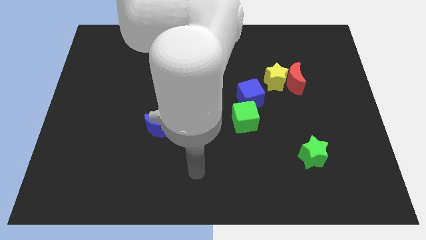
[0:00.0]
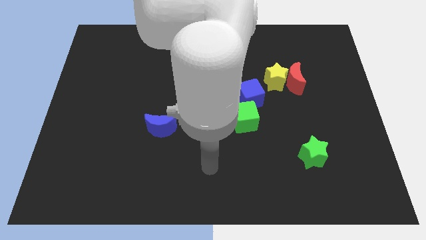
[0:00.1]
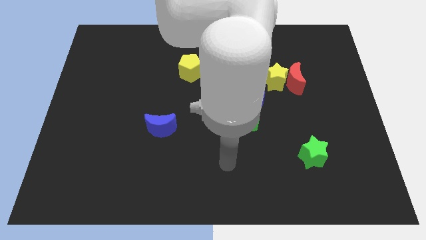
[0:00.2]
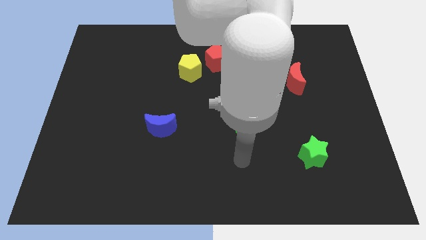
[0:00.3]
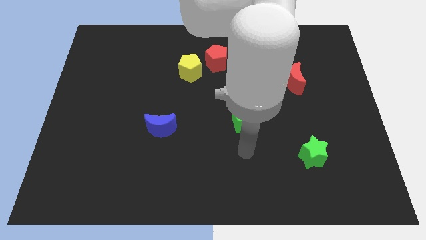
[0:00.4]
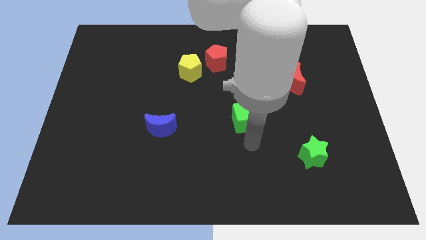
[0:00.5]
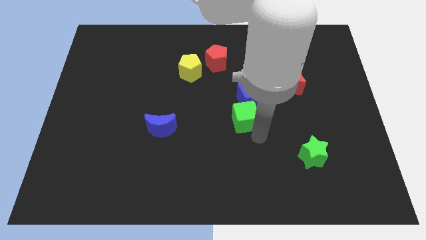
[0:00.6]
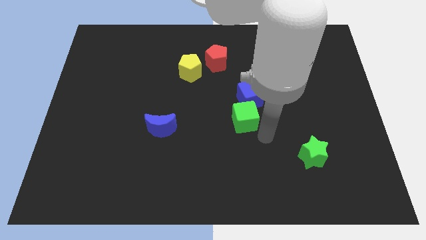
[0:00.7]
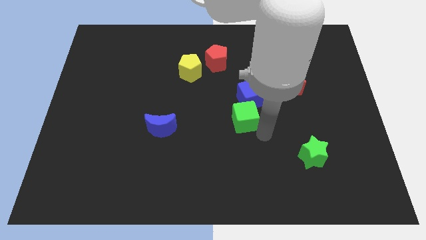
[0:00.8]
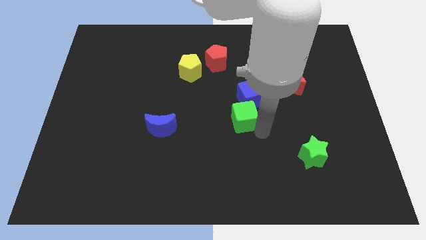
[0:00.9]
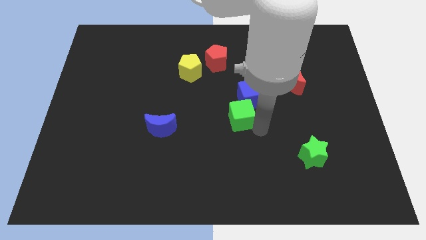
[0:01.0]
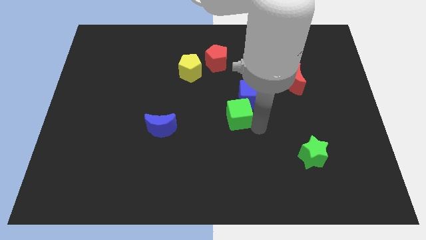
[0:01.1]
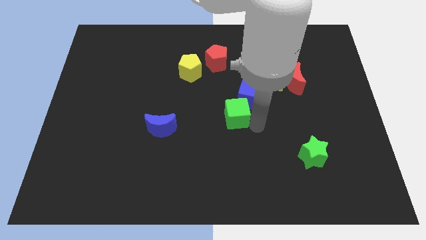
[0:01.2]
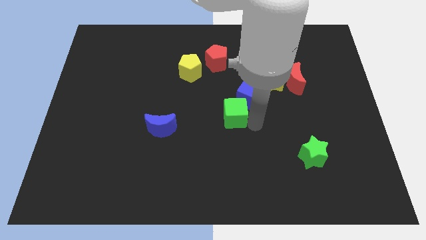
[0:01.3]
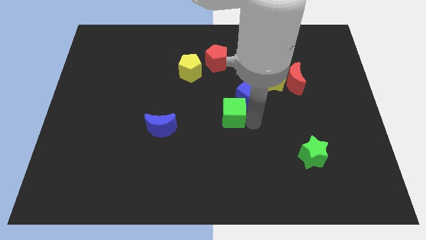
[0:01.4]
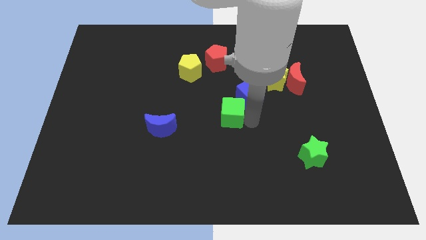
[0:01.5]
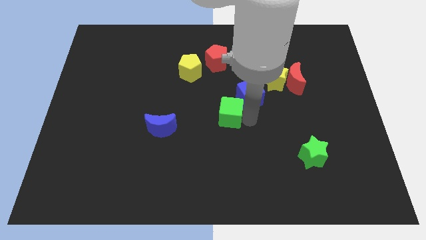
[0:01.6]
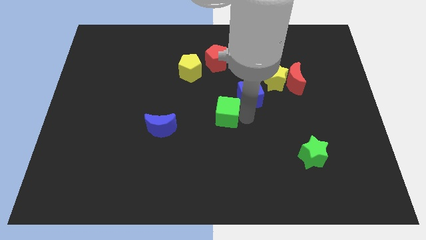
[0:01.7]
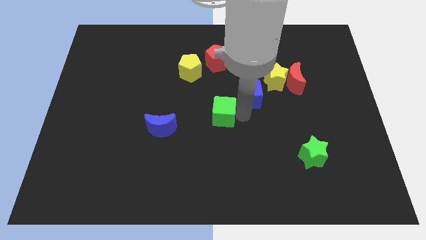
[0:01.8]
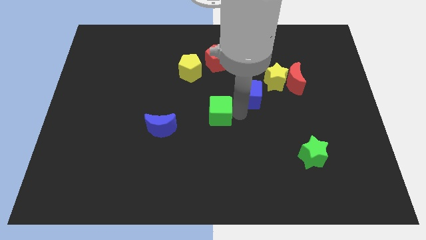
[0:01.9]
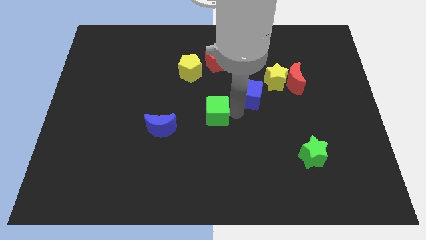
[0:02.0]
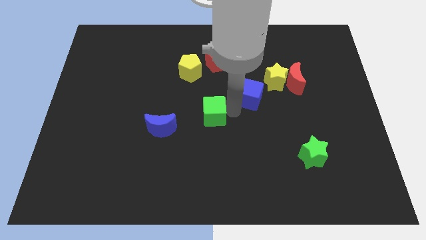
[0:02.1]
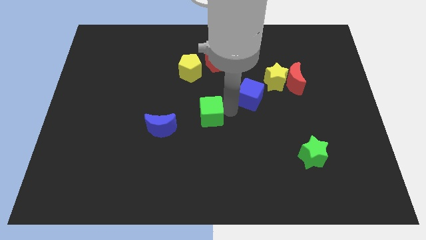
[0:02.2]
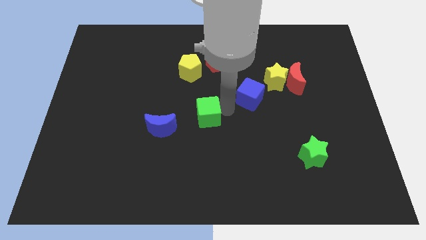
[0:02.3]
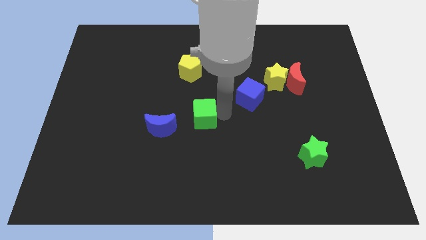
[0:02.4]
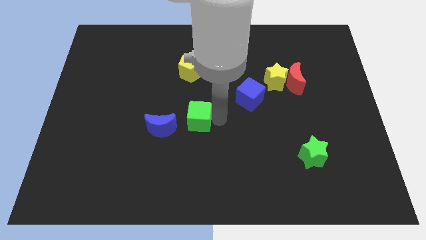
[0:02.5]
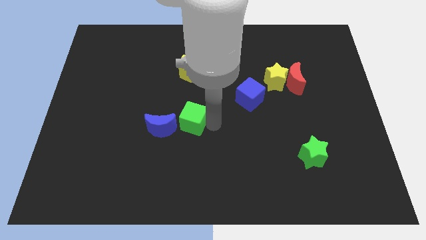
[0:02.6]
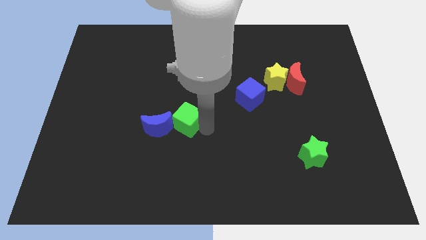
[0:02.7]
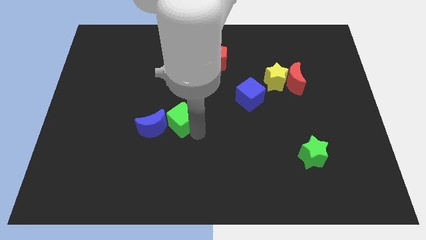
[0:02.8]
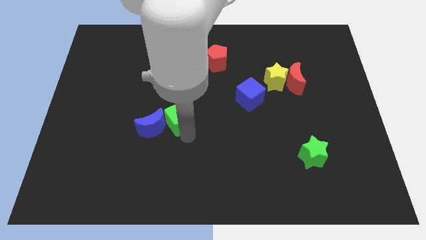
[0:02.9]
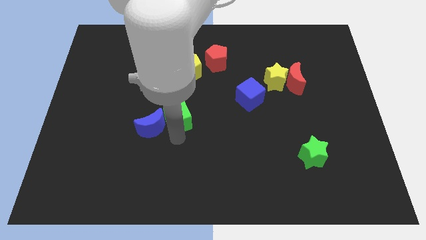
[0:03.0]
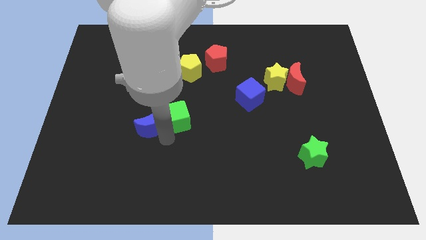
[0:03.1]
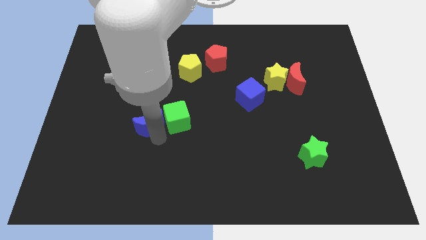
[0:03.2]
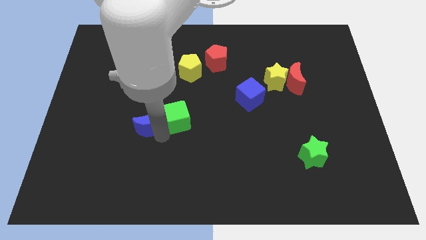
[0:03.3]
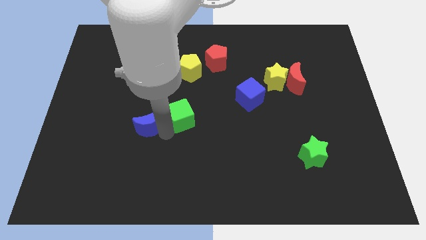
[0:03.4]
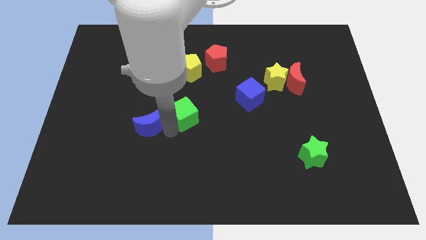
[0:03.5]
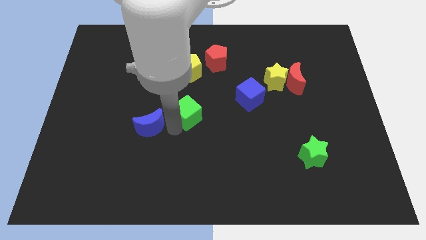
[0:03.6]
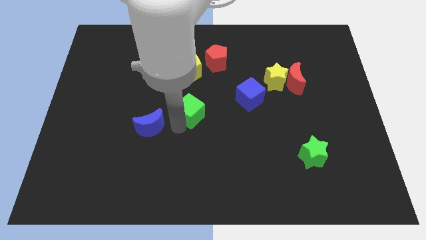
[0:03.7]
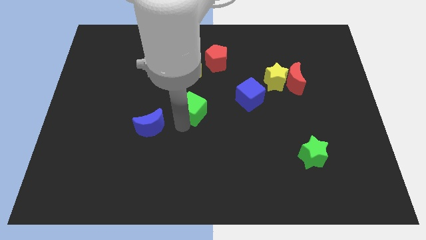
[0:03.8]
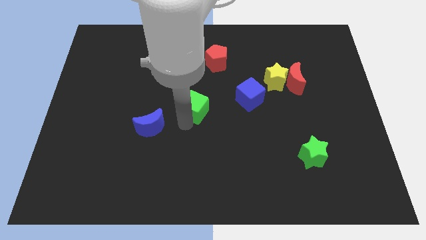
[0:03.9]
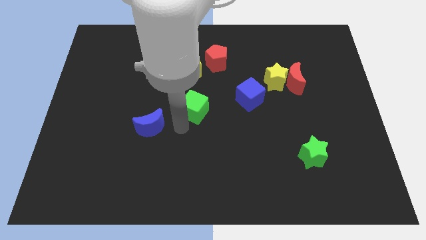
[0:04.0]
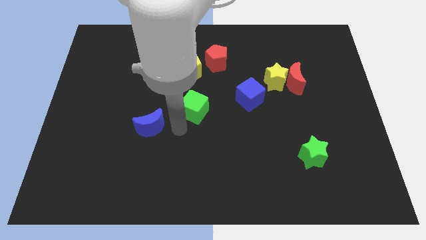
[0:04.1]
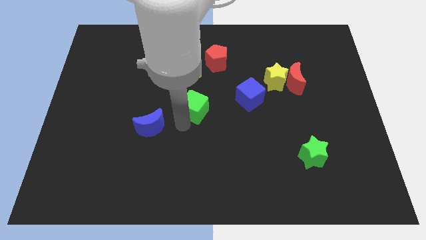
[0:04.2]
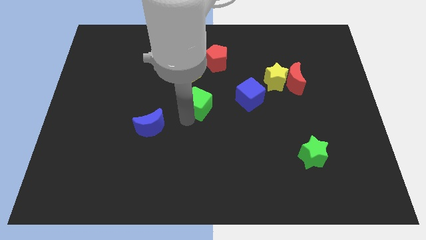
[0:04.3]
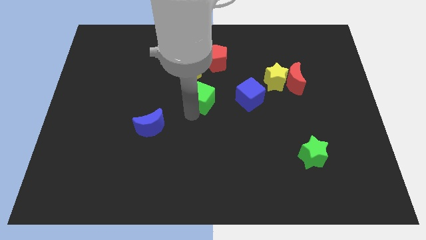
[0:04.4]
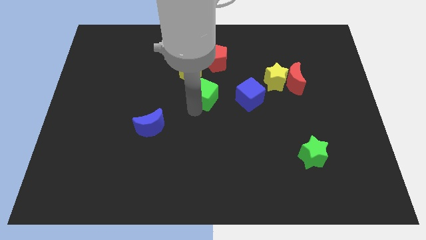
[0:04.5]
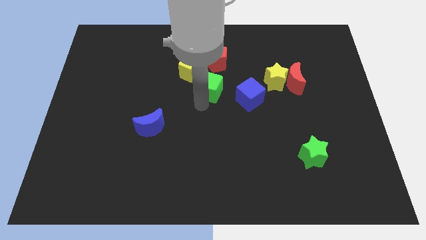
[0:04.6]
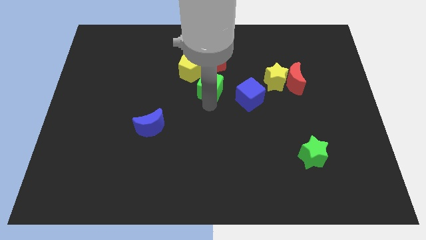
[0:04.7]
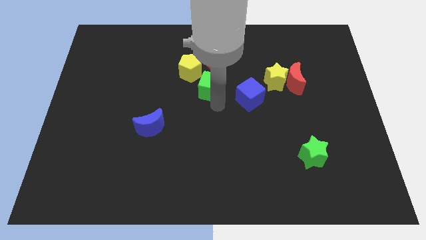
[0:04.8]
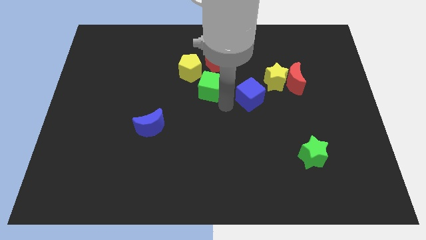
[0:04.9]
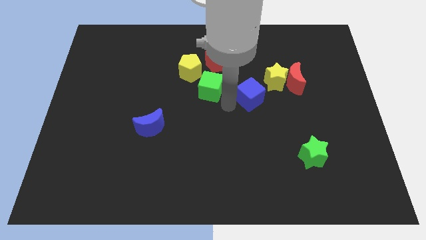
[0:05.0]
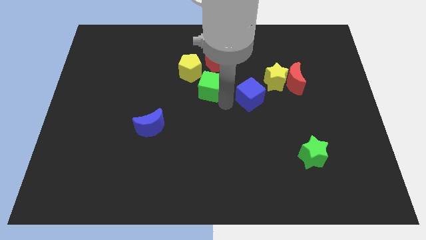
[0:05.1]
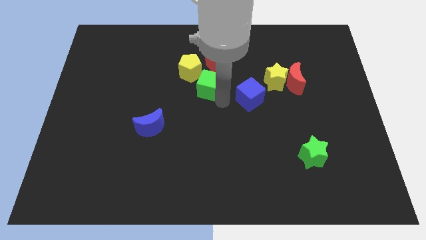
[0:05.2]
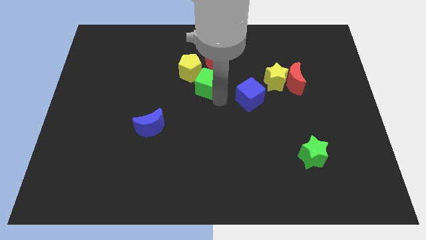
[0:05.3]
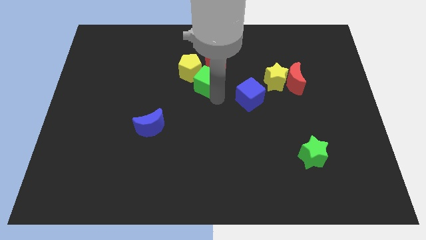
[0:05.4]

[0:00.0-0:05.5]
move the green cube to the yellow pentagon

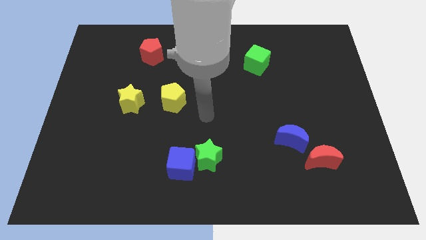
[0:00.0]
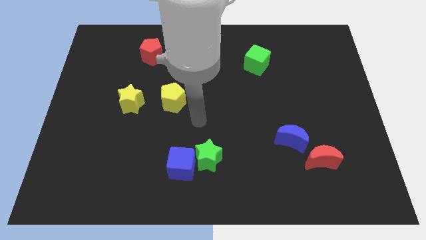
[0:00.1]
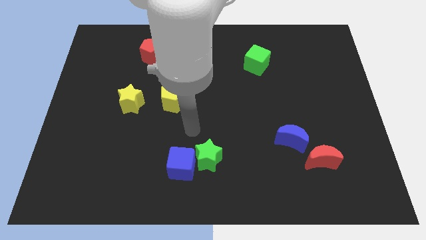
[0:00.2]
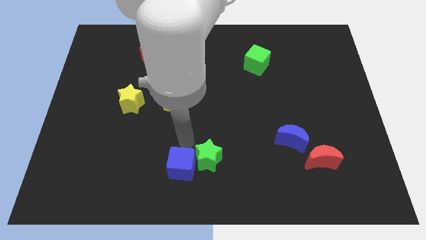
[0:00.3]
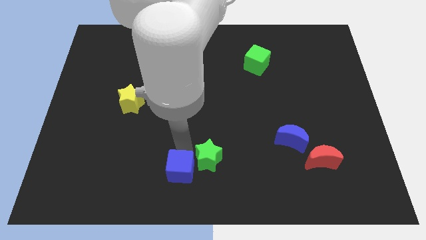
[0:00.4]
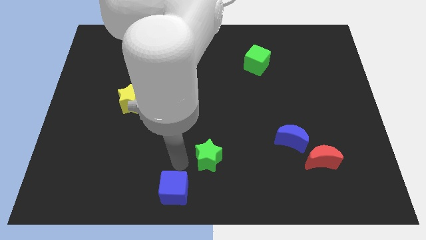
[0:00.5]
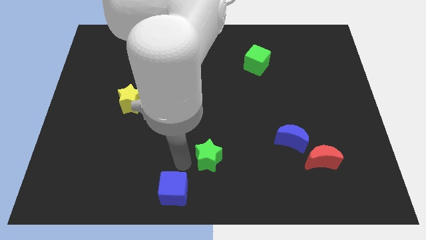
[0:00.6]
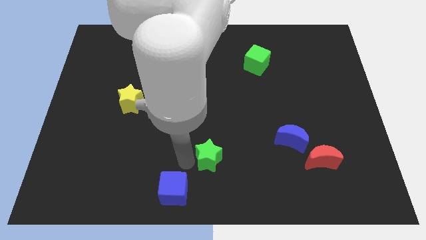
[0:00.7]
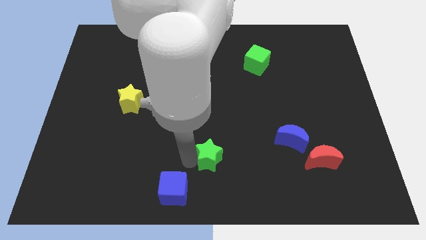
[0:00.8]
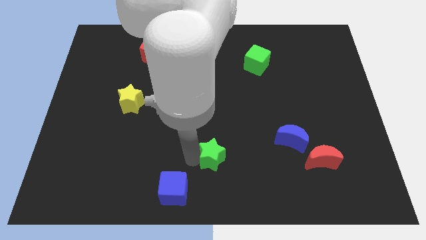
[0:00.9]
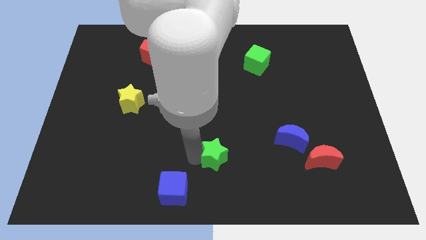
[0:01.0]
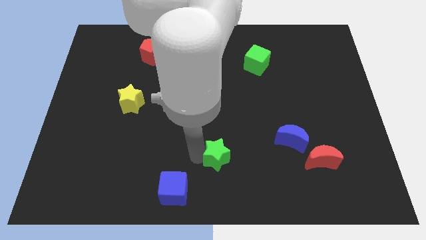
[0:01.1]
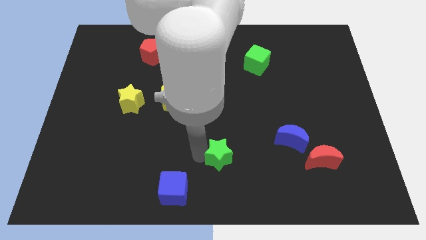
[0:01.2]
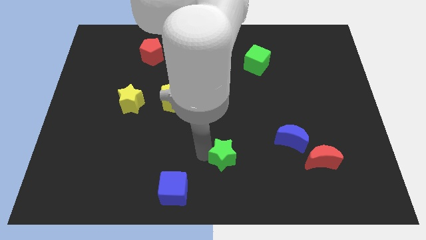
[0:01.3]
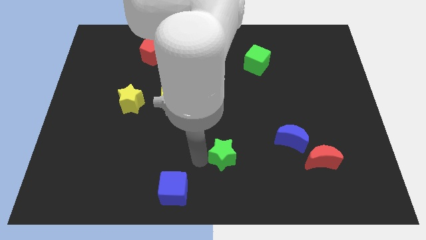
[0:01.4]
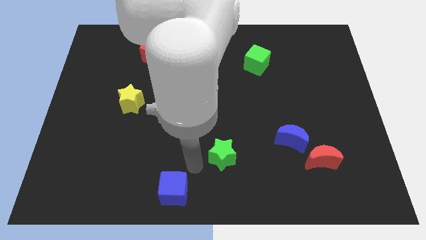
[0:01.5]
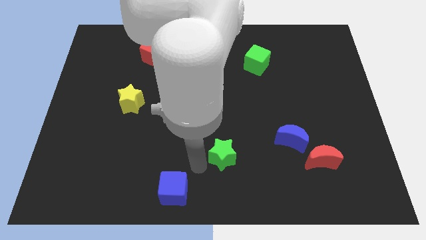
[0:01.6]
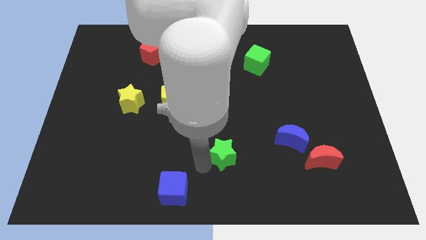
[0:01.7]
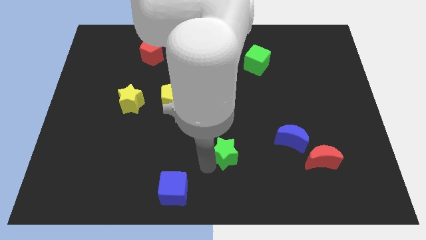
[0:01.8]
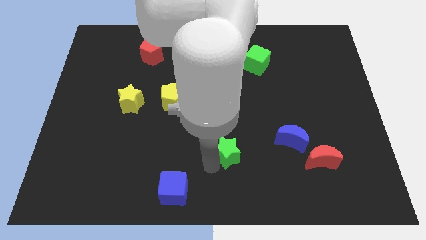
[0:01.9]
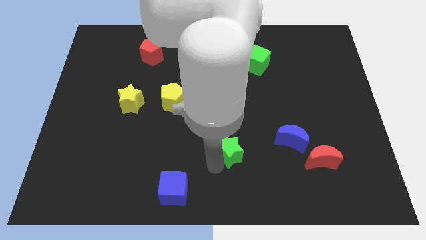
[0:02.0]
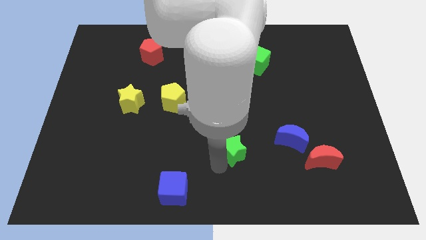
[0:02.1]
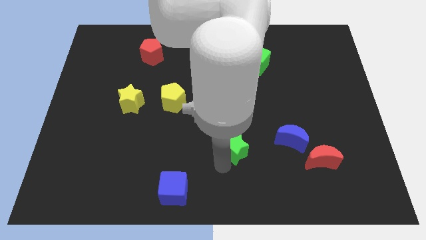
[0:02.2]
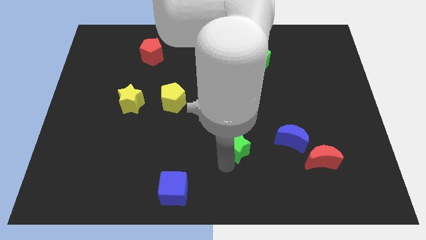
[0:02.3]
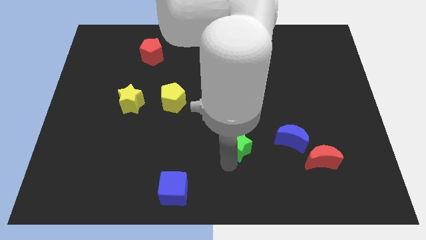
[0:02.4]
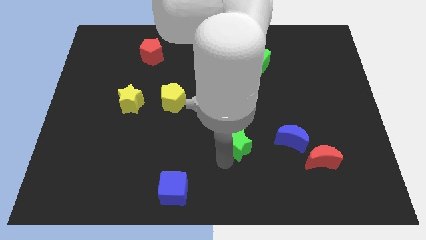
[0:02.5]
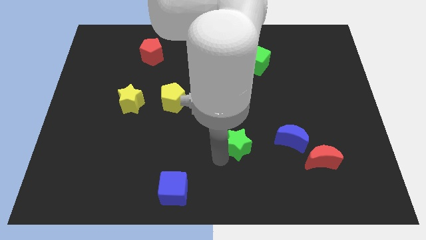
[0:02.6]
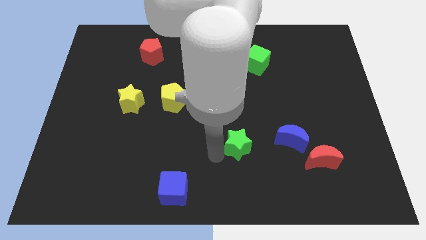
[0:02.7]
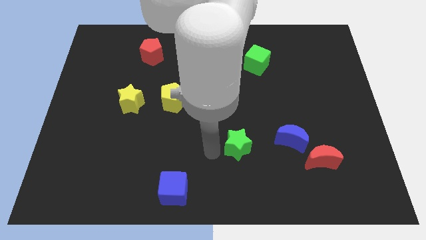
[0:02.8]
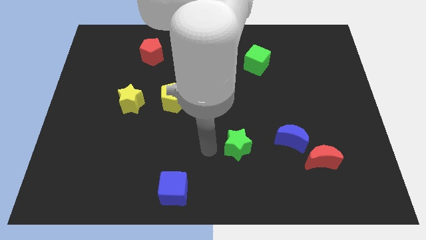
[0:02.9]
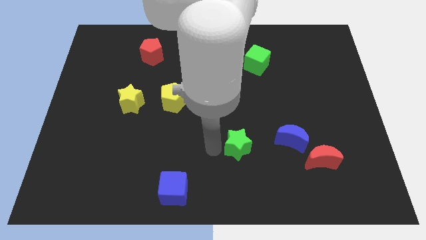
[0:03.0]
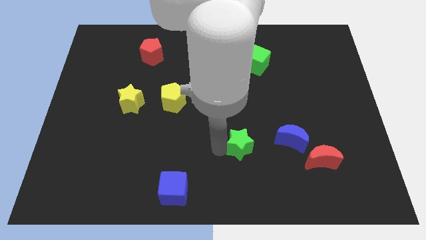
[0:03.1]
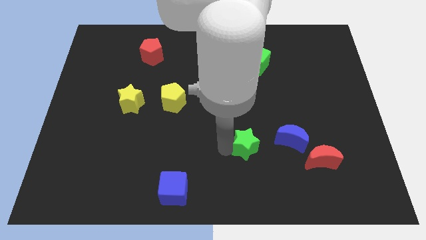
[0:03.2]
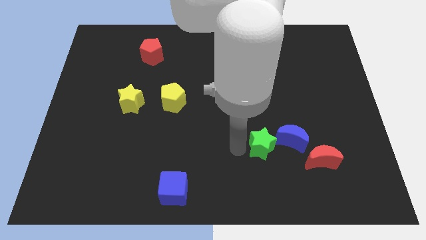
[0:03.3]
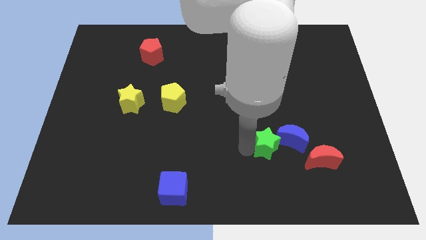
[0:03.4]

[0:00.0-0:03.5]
put the green star to the blue moon
